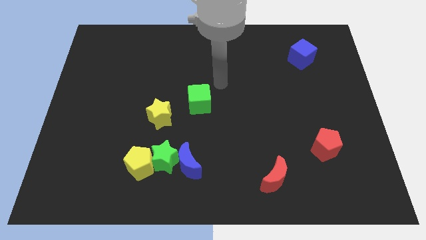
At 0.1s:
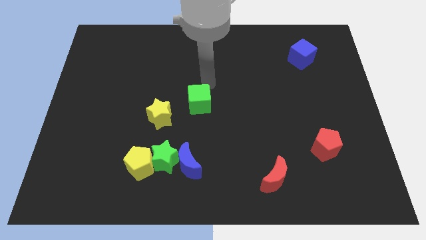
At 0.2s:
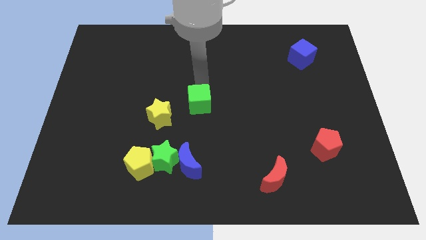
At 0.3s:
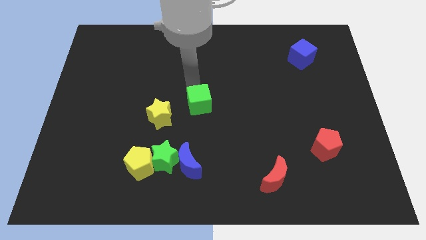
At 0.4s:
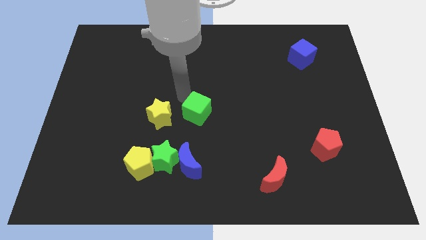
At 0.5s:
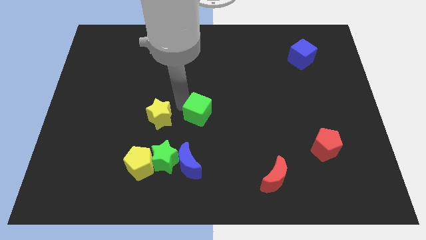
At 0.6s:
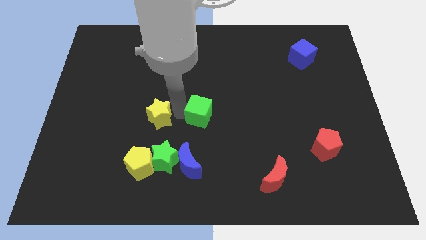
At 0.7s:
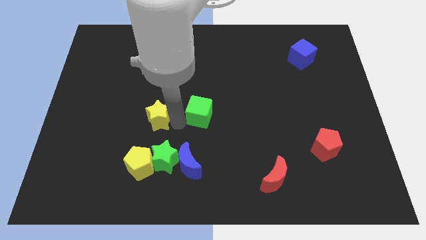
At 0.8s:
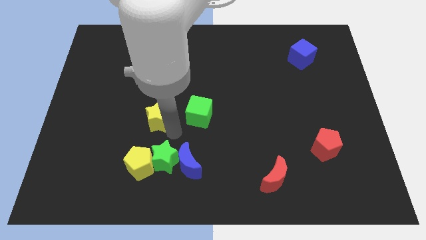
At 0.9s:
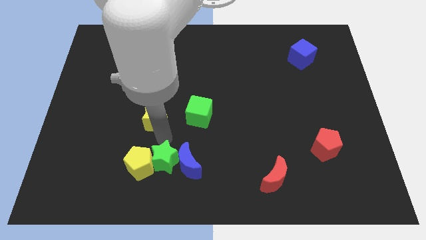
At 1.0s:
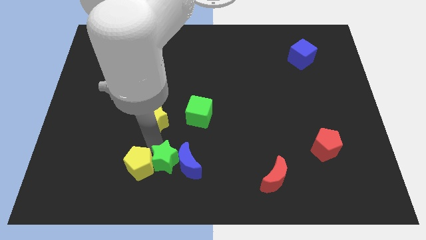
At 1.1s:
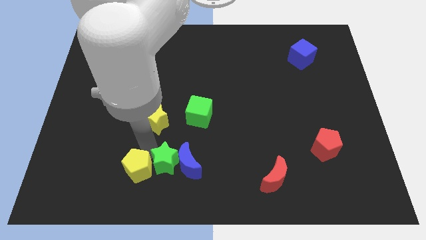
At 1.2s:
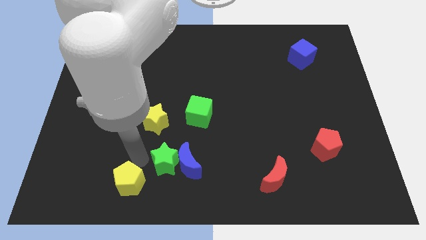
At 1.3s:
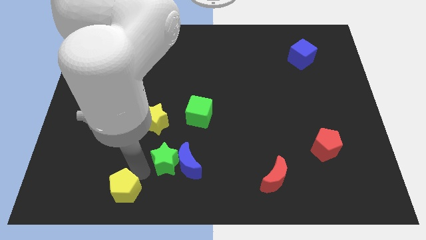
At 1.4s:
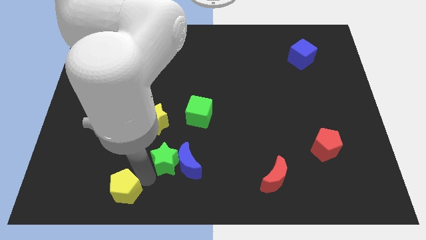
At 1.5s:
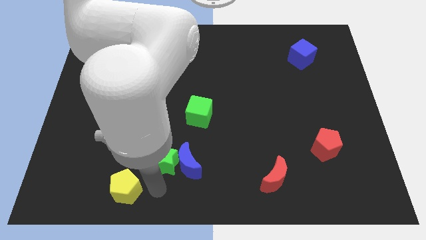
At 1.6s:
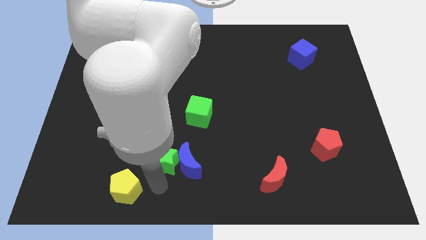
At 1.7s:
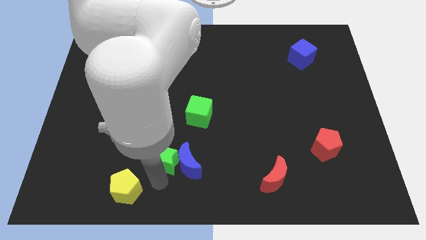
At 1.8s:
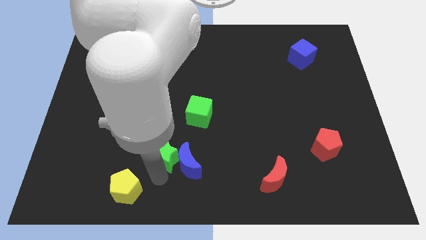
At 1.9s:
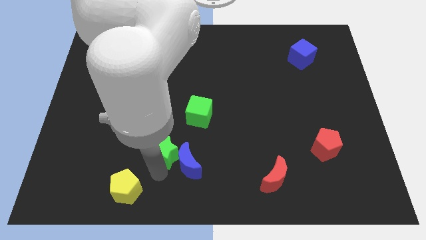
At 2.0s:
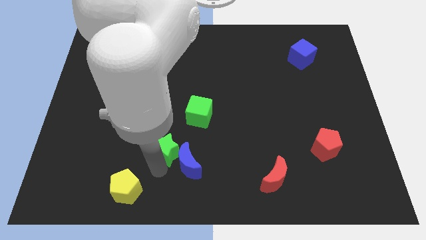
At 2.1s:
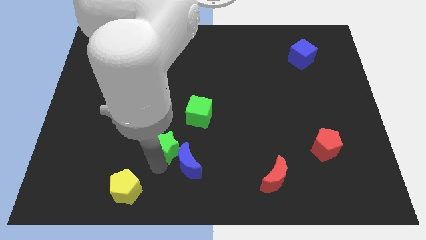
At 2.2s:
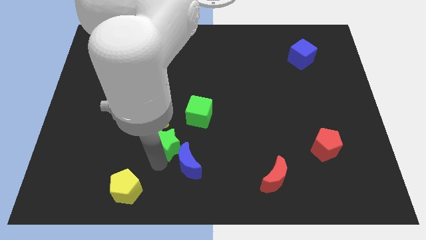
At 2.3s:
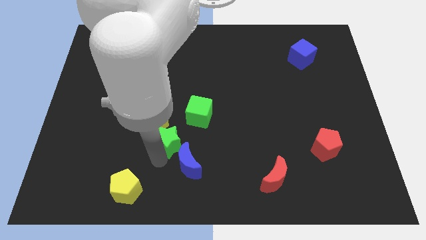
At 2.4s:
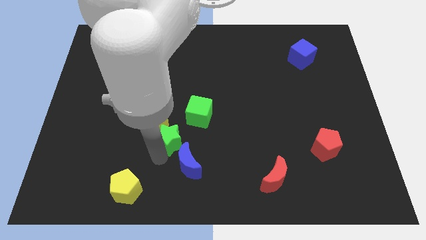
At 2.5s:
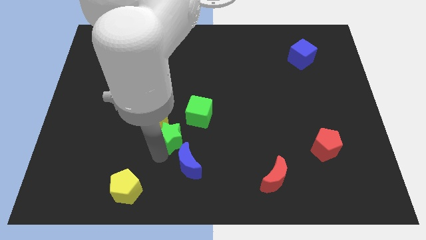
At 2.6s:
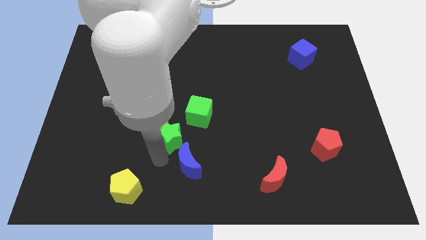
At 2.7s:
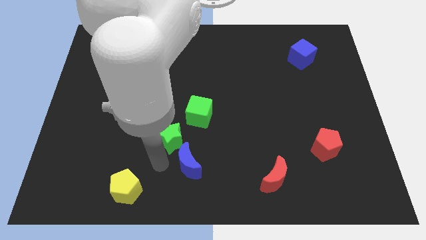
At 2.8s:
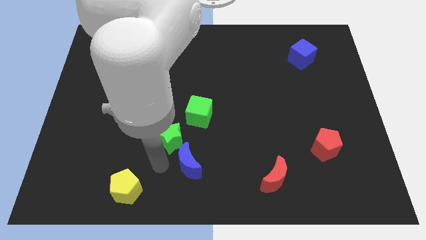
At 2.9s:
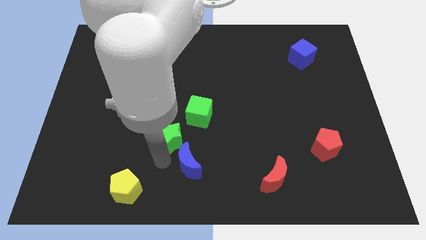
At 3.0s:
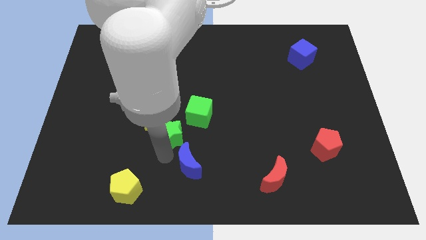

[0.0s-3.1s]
separate the green star from the blue moon and yellow pentagon

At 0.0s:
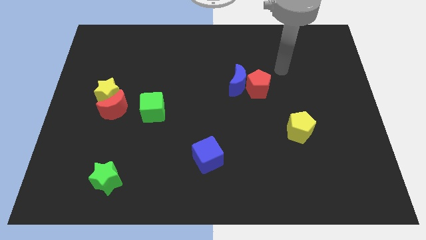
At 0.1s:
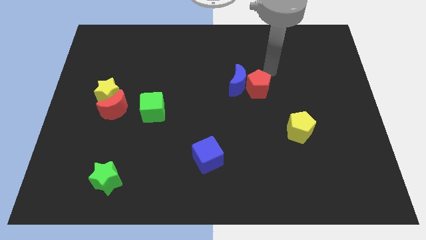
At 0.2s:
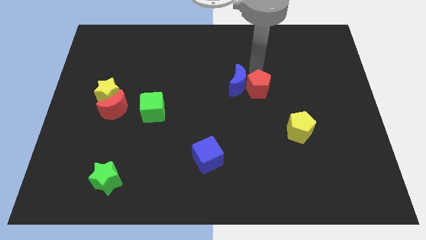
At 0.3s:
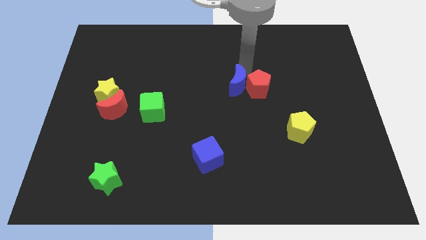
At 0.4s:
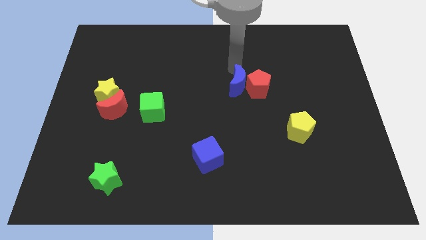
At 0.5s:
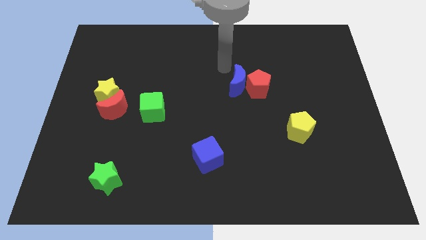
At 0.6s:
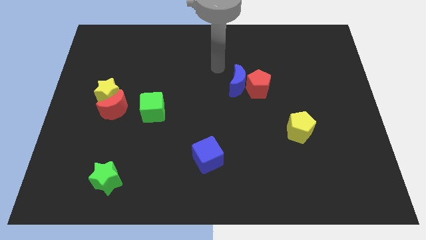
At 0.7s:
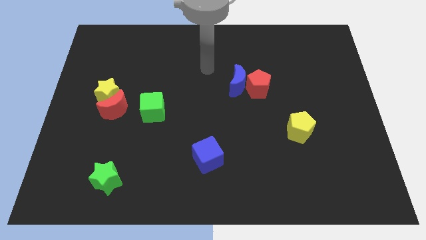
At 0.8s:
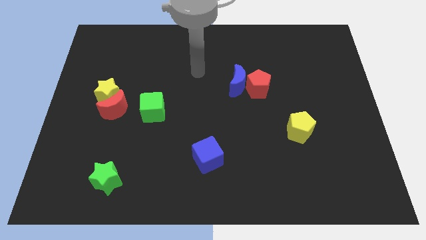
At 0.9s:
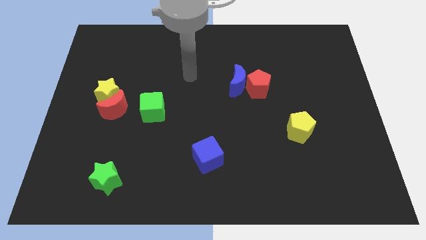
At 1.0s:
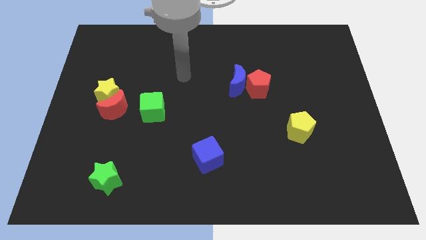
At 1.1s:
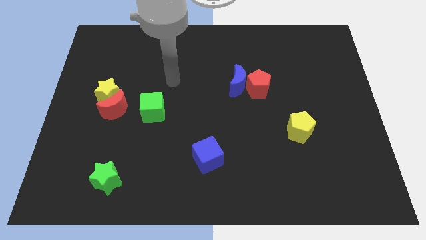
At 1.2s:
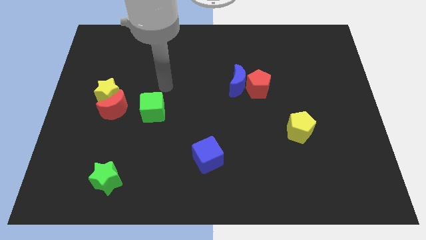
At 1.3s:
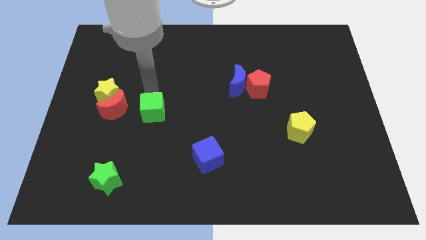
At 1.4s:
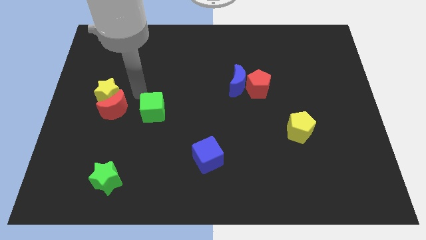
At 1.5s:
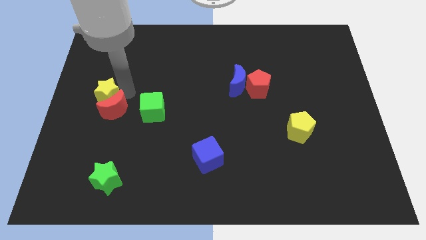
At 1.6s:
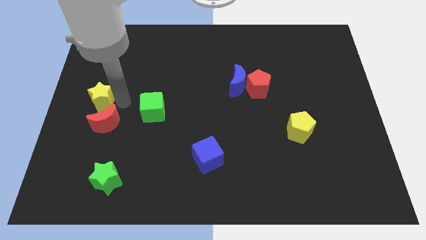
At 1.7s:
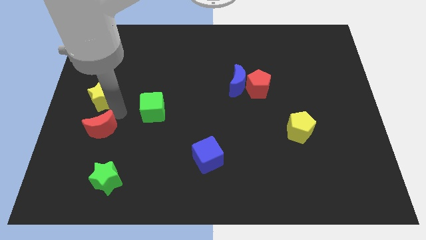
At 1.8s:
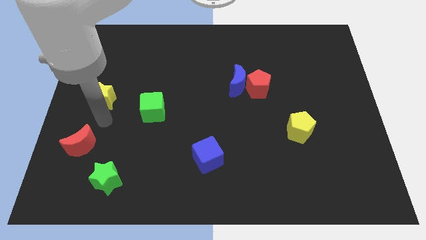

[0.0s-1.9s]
pull the yellow star apart from the red moon

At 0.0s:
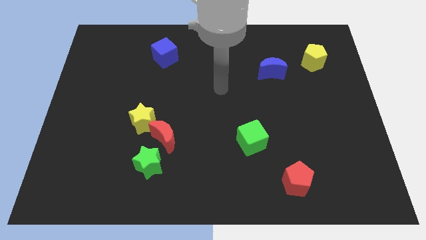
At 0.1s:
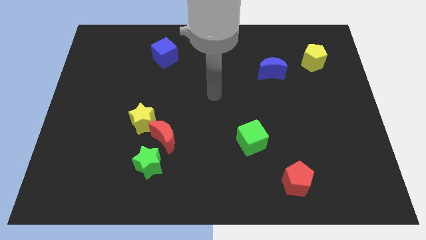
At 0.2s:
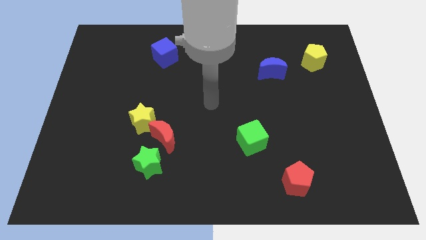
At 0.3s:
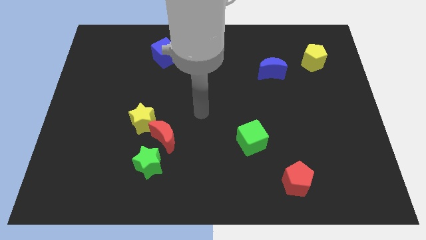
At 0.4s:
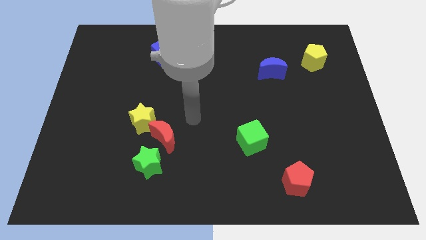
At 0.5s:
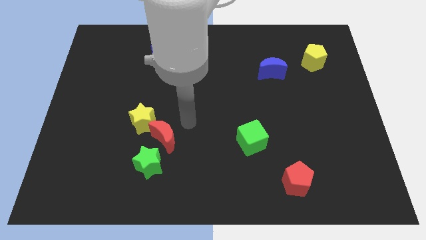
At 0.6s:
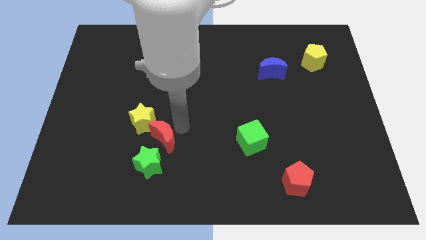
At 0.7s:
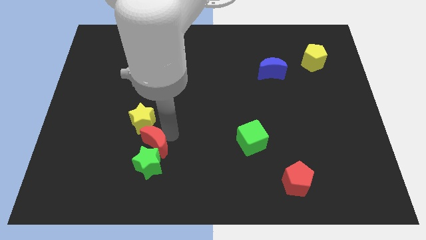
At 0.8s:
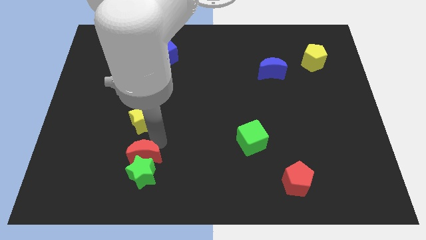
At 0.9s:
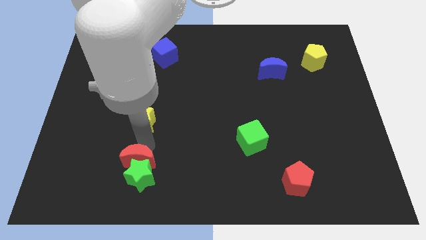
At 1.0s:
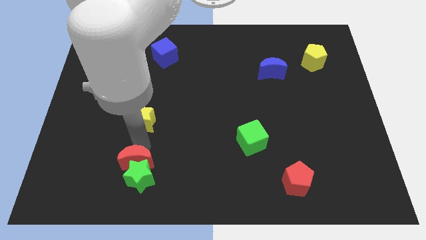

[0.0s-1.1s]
separate the yellow star from the red moon

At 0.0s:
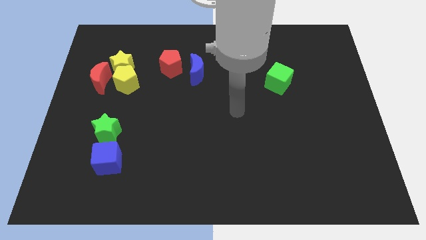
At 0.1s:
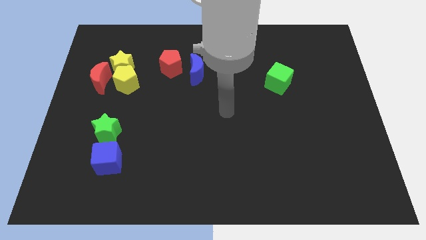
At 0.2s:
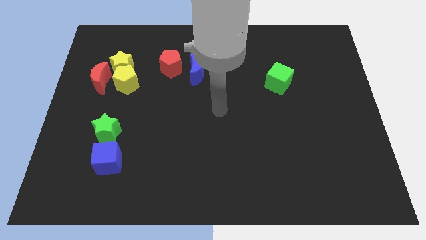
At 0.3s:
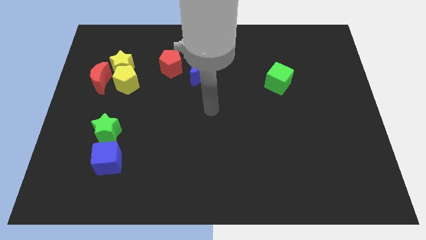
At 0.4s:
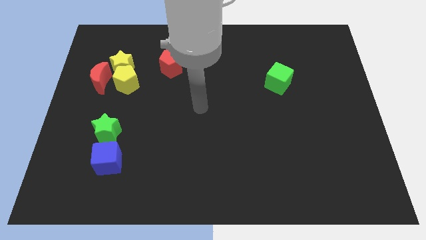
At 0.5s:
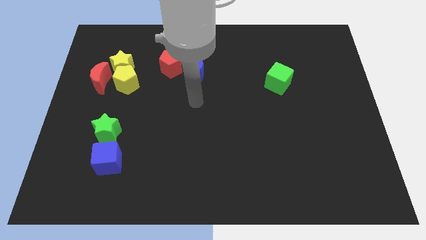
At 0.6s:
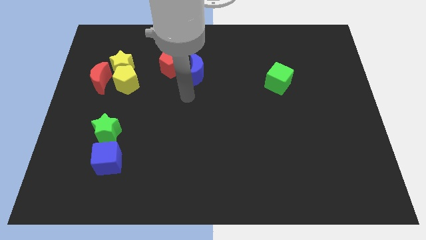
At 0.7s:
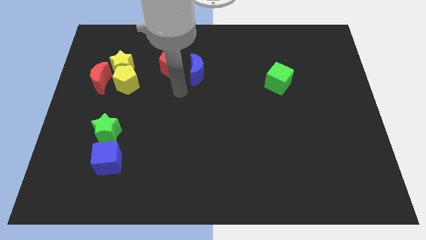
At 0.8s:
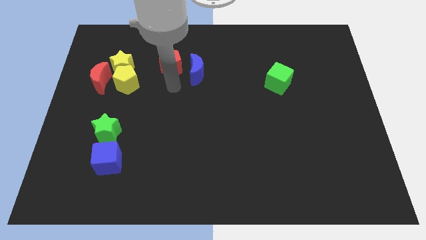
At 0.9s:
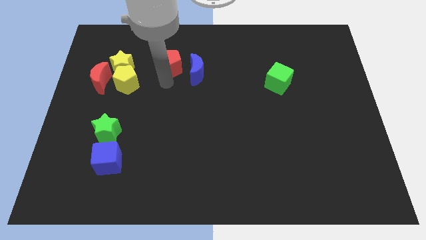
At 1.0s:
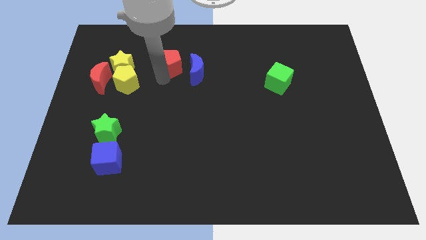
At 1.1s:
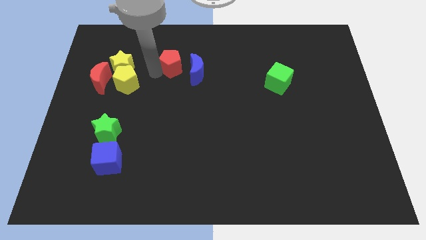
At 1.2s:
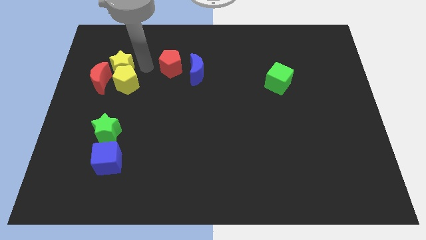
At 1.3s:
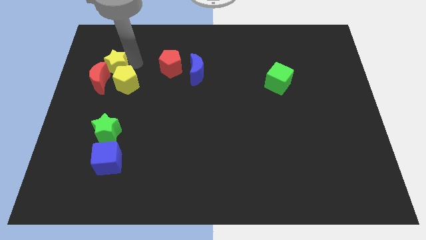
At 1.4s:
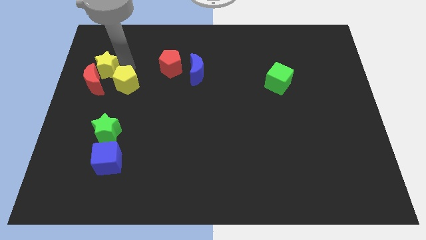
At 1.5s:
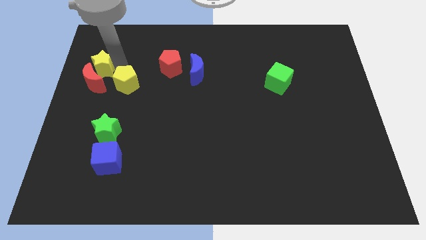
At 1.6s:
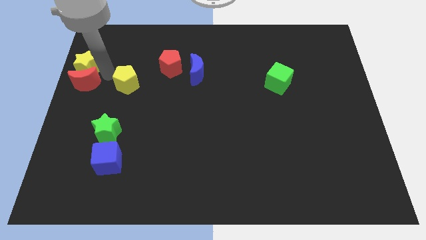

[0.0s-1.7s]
move the yellow pentagon away from the yellow star and red moon

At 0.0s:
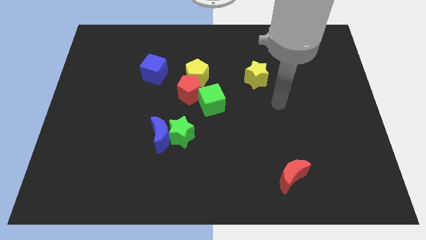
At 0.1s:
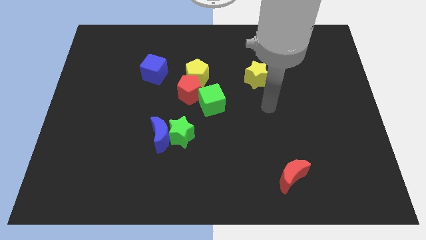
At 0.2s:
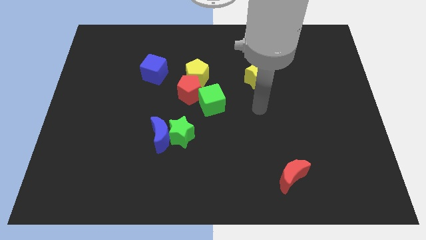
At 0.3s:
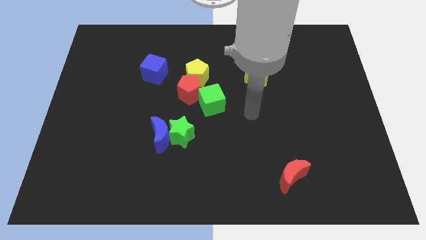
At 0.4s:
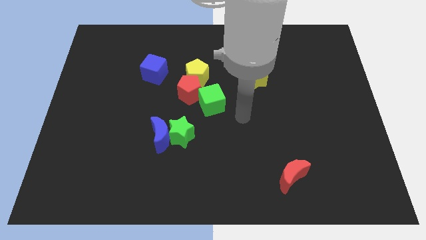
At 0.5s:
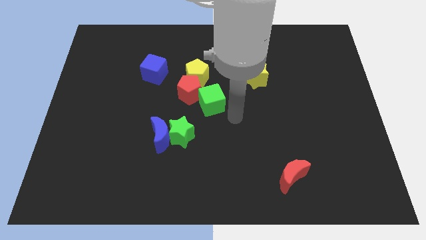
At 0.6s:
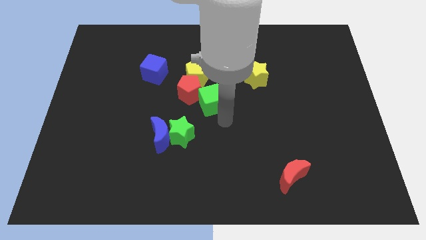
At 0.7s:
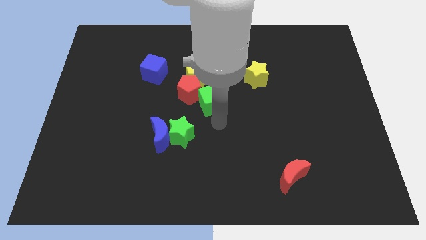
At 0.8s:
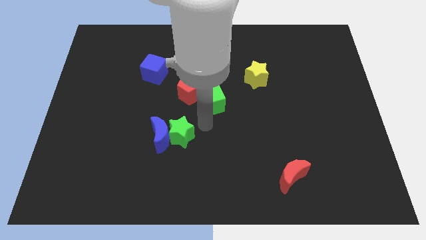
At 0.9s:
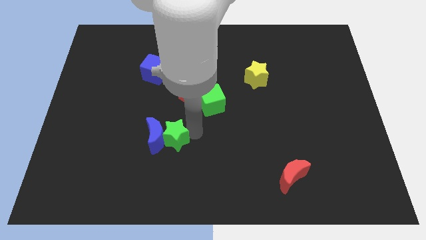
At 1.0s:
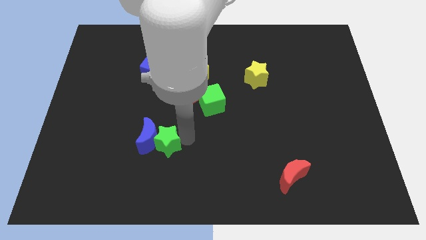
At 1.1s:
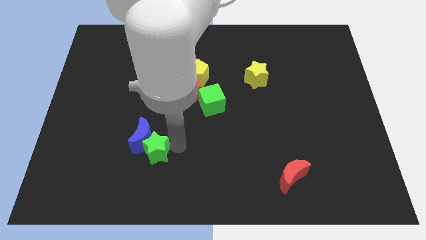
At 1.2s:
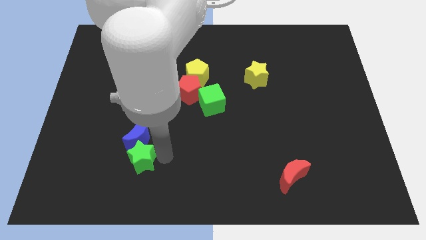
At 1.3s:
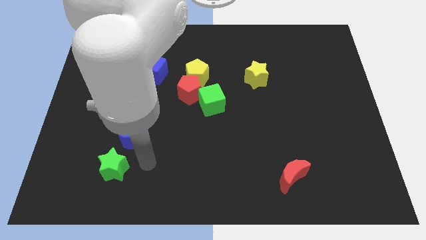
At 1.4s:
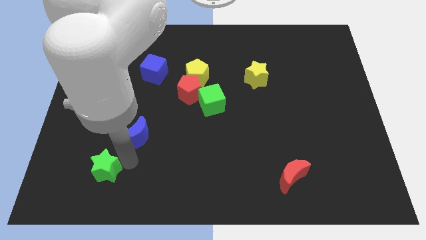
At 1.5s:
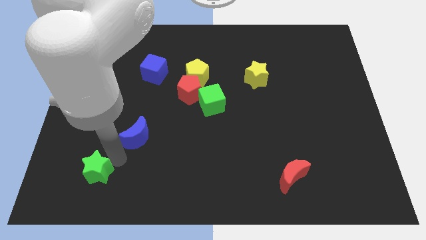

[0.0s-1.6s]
move the blue moon away from the green star
